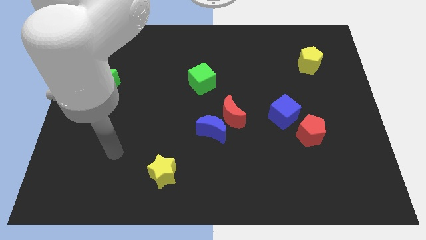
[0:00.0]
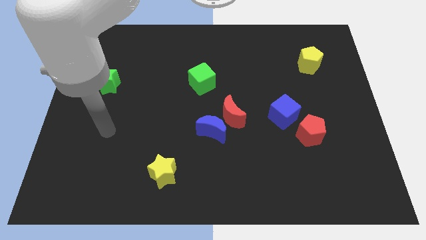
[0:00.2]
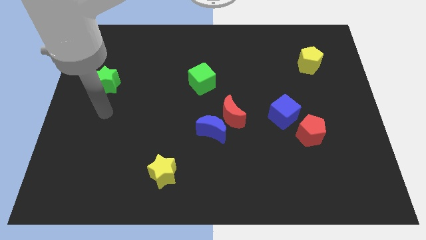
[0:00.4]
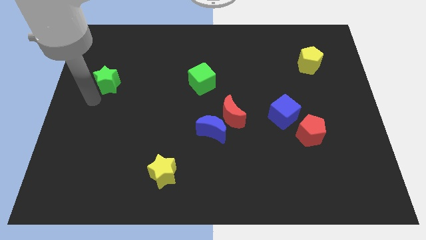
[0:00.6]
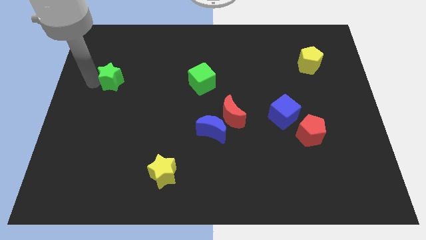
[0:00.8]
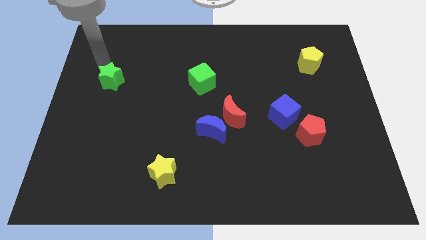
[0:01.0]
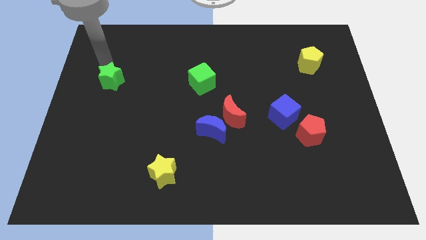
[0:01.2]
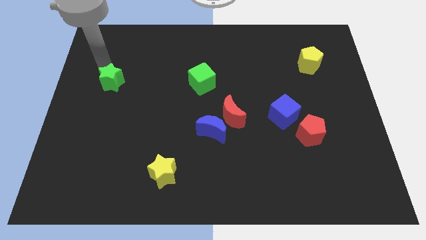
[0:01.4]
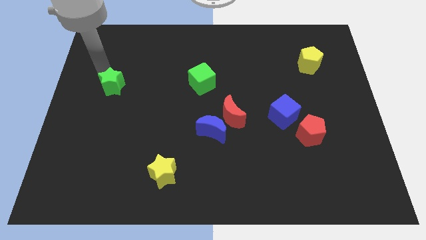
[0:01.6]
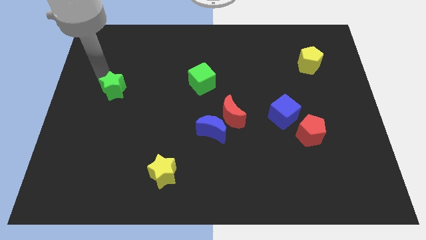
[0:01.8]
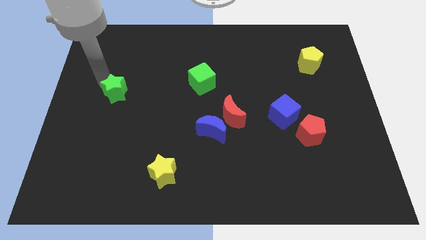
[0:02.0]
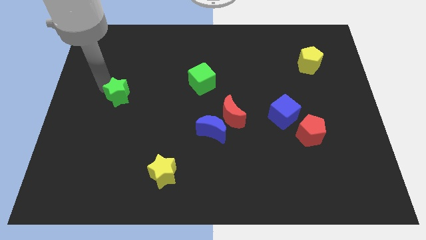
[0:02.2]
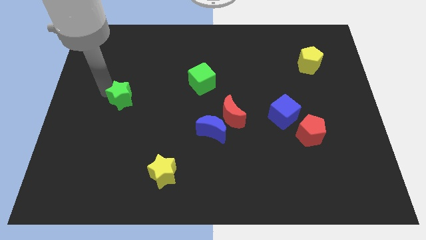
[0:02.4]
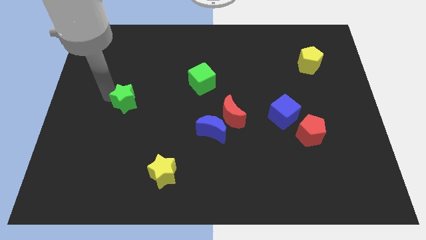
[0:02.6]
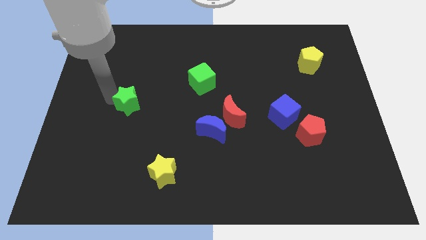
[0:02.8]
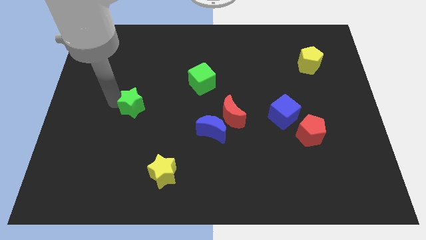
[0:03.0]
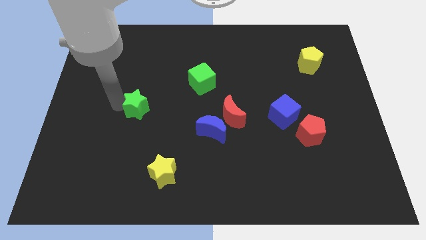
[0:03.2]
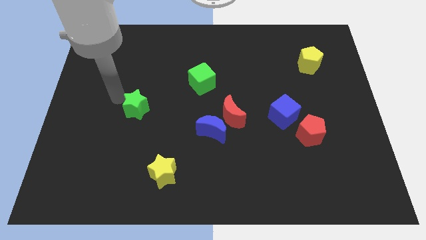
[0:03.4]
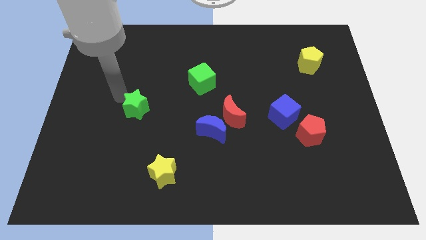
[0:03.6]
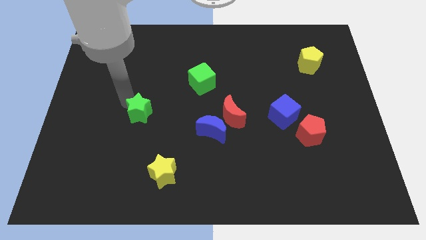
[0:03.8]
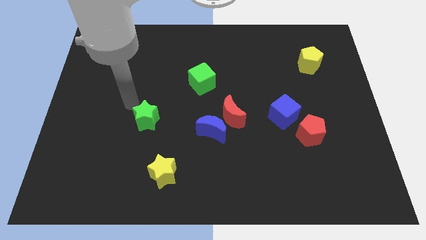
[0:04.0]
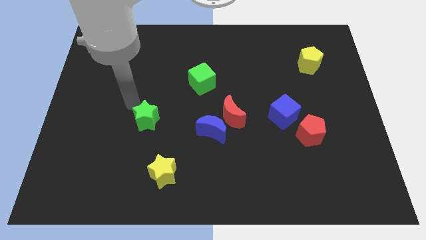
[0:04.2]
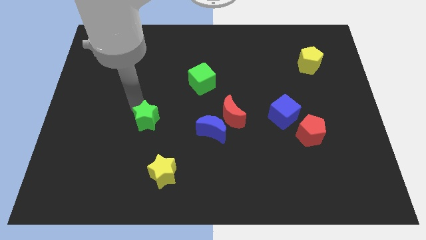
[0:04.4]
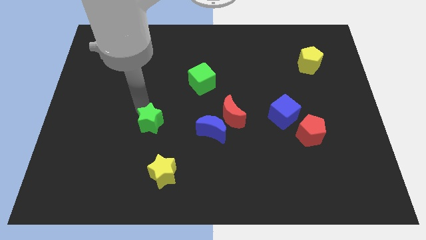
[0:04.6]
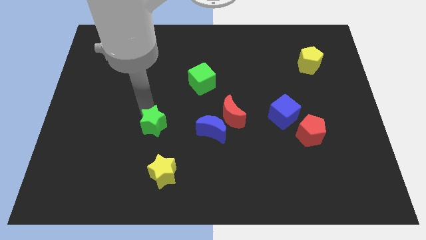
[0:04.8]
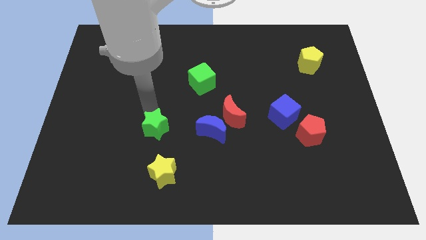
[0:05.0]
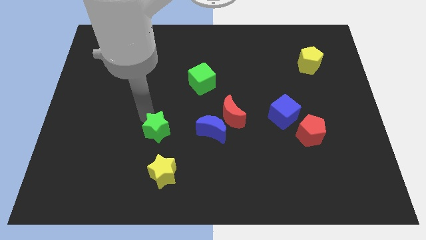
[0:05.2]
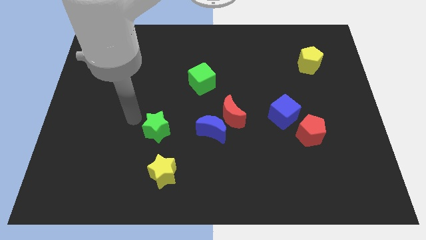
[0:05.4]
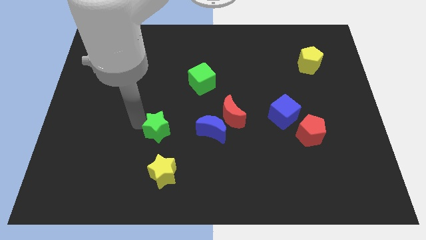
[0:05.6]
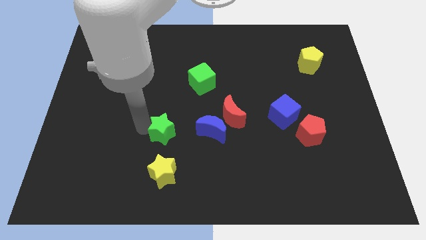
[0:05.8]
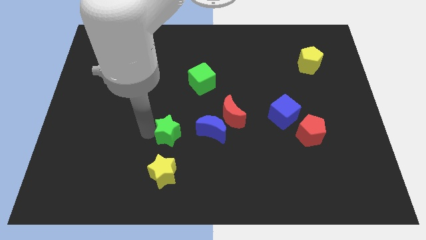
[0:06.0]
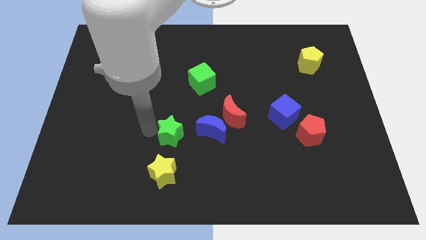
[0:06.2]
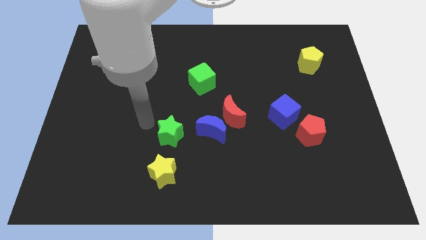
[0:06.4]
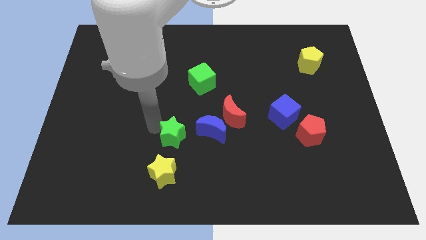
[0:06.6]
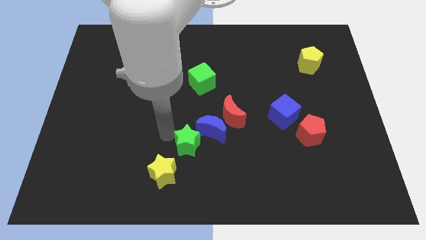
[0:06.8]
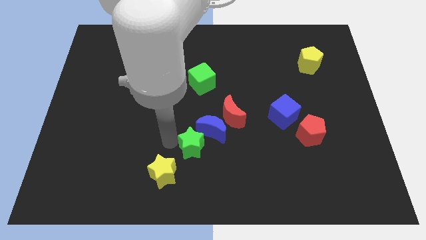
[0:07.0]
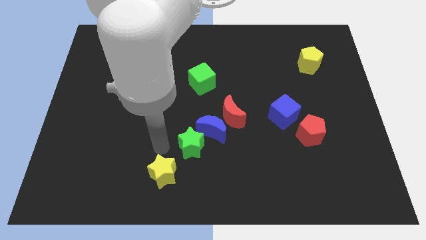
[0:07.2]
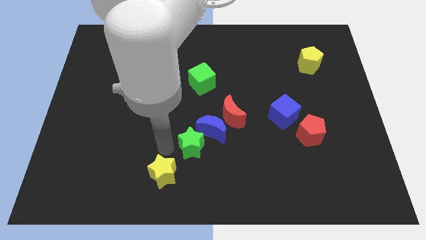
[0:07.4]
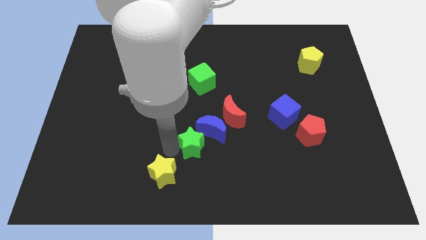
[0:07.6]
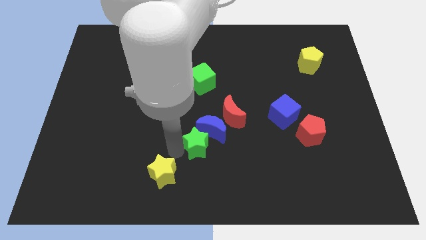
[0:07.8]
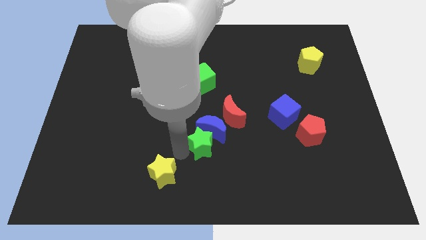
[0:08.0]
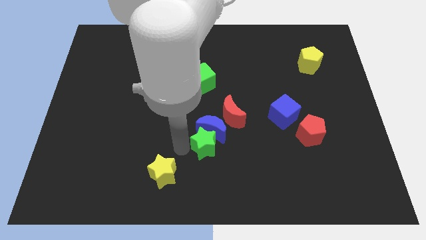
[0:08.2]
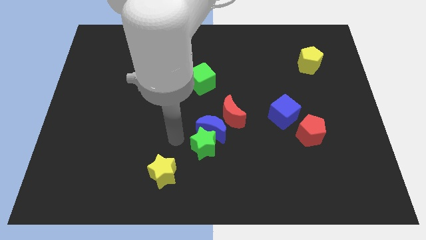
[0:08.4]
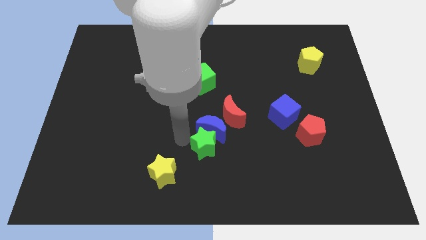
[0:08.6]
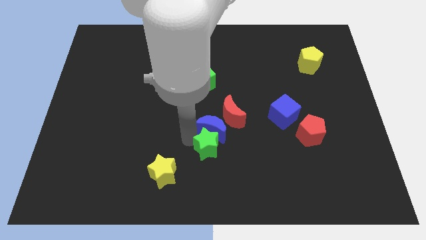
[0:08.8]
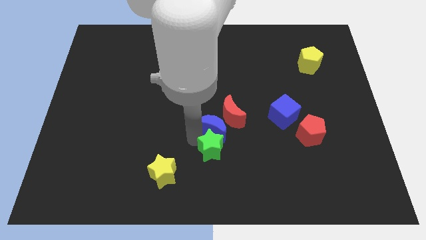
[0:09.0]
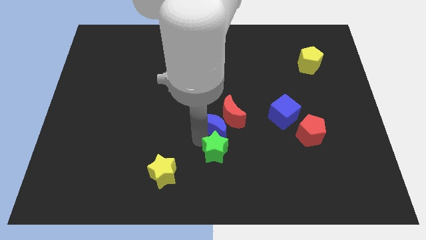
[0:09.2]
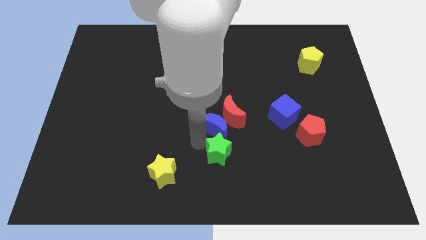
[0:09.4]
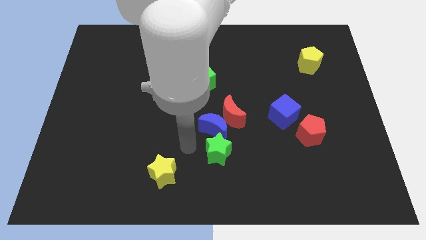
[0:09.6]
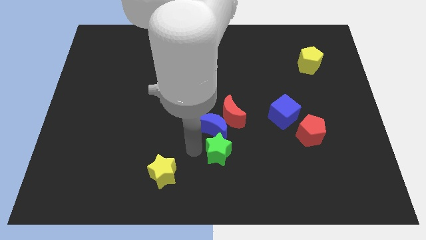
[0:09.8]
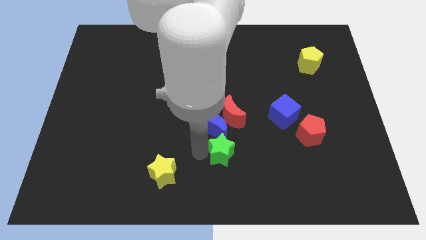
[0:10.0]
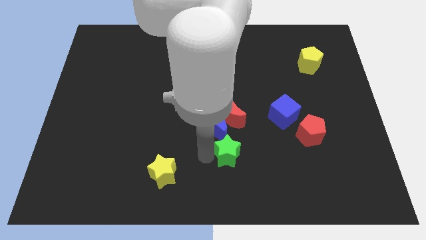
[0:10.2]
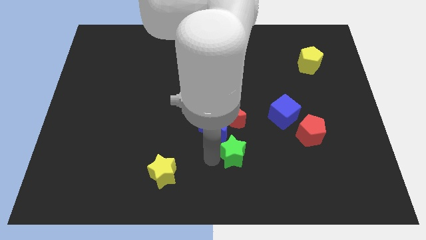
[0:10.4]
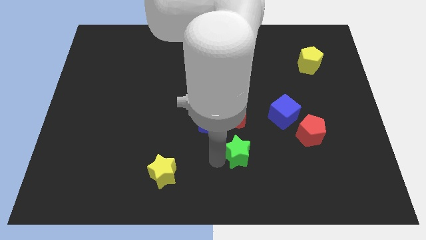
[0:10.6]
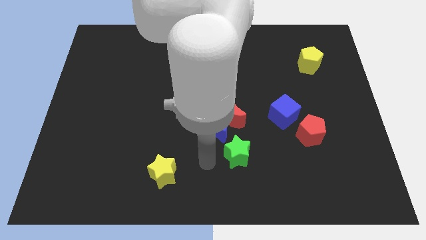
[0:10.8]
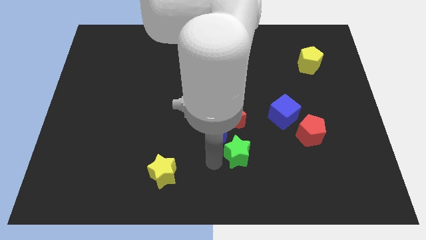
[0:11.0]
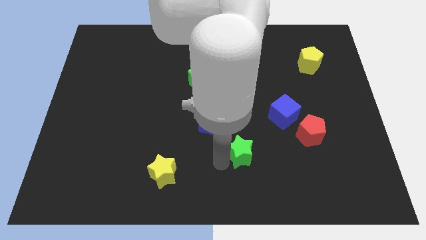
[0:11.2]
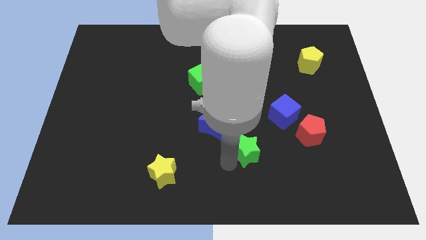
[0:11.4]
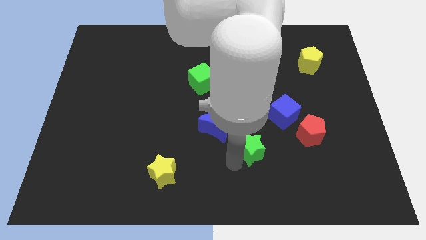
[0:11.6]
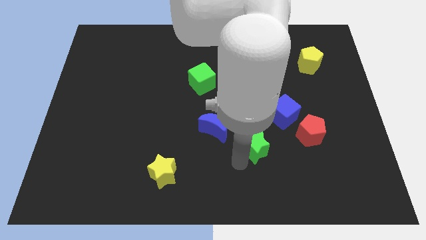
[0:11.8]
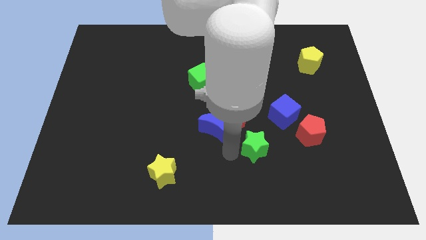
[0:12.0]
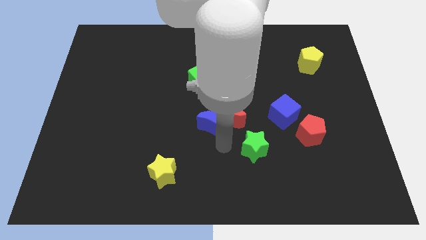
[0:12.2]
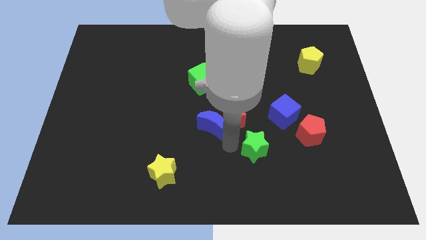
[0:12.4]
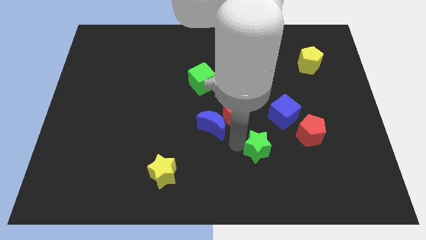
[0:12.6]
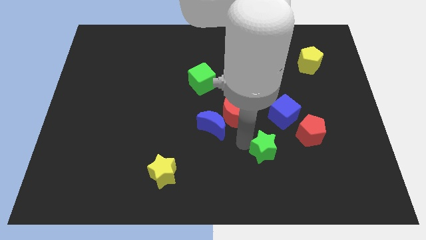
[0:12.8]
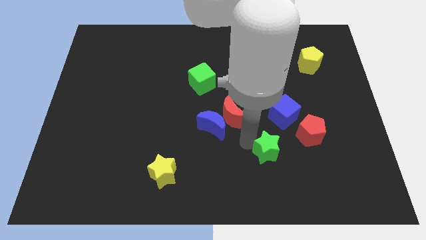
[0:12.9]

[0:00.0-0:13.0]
put the green star to the bottom side of the blue cube
